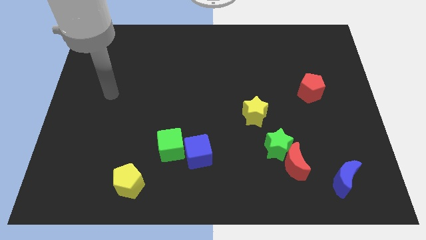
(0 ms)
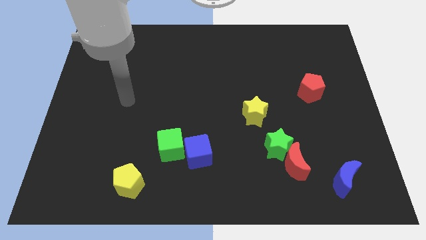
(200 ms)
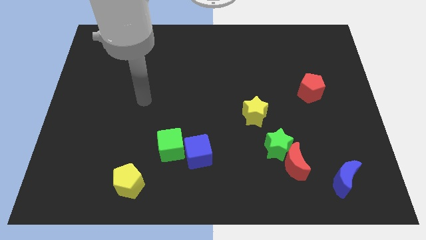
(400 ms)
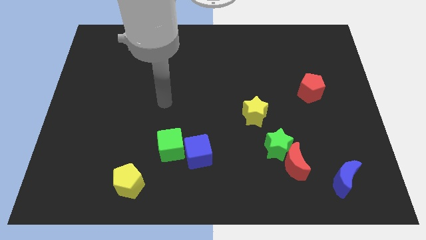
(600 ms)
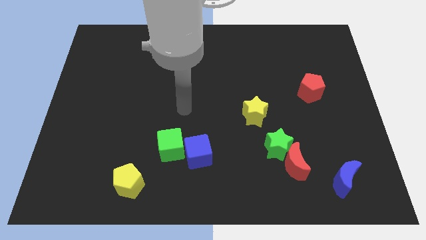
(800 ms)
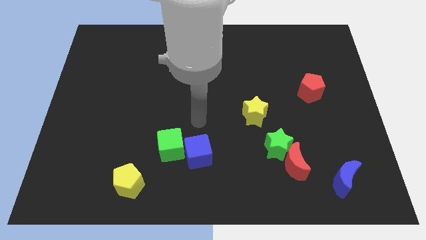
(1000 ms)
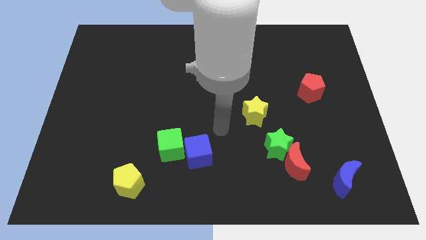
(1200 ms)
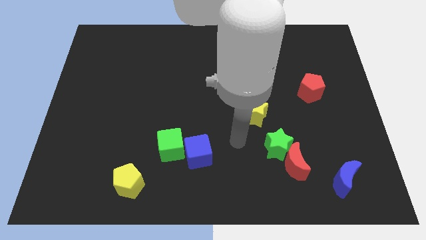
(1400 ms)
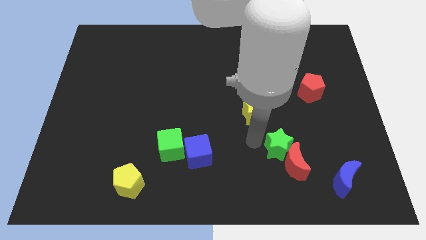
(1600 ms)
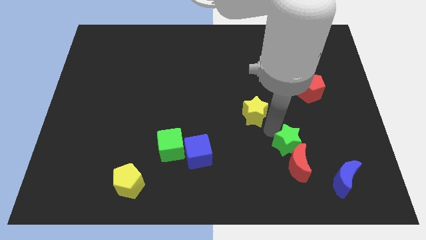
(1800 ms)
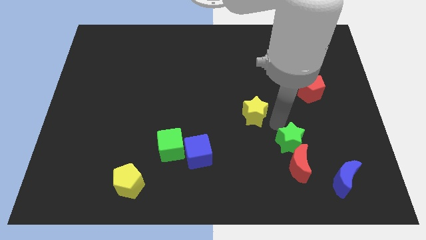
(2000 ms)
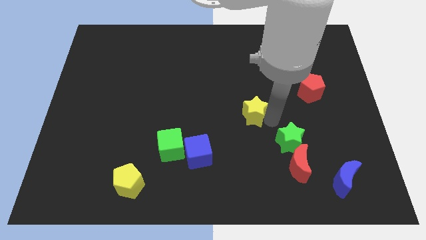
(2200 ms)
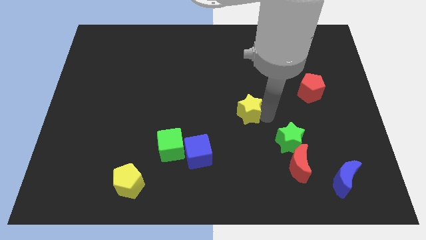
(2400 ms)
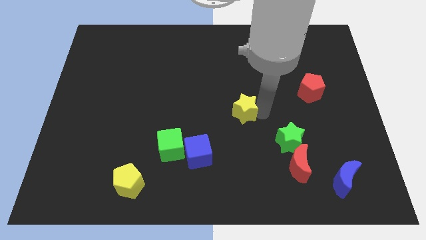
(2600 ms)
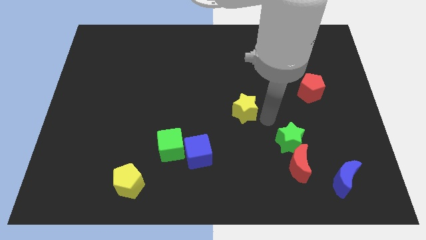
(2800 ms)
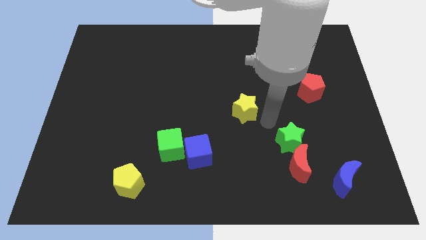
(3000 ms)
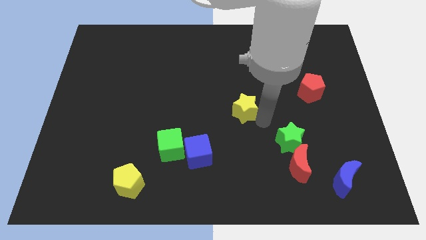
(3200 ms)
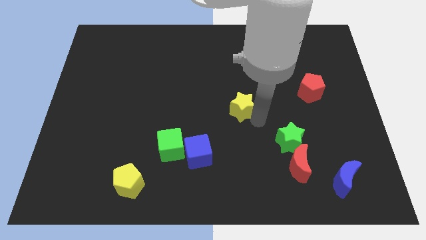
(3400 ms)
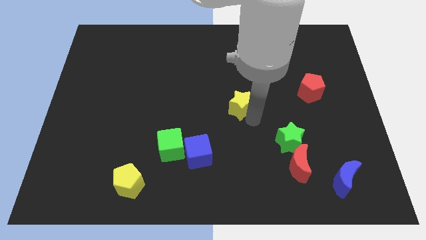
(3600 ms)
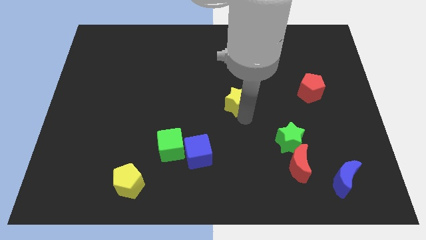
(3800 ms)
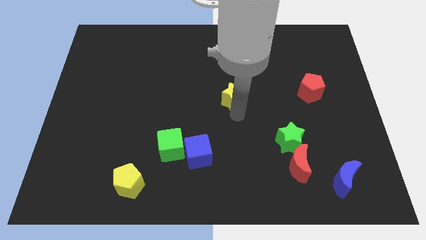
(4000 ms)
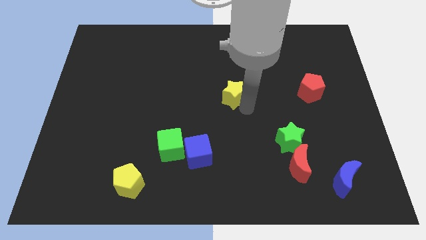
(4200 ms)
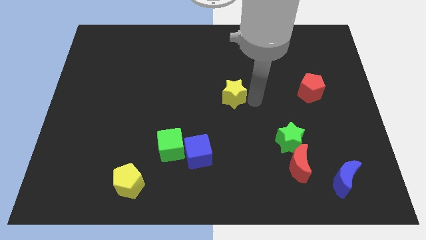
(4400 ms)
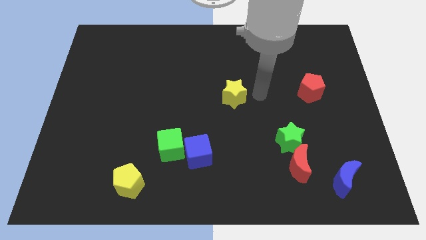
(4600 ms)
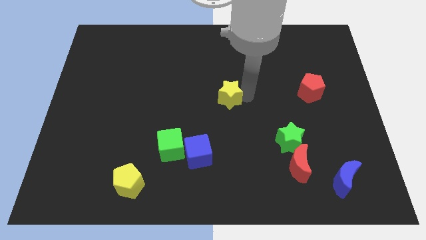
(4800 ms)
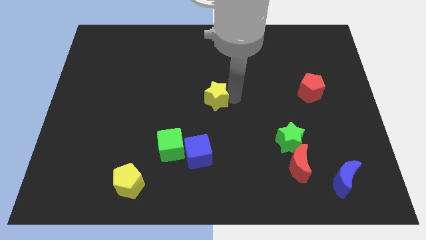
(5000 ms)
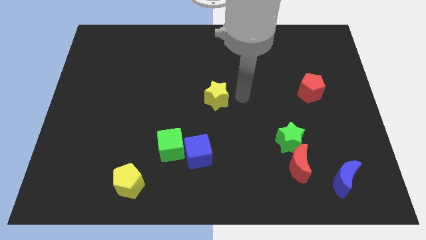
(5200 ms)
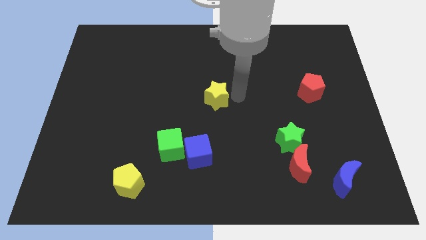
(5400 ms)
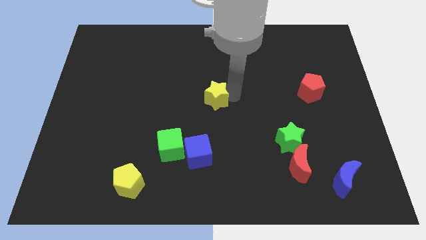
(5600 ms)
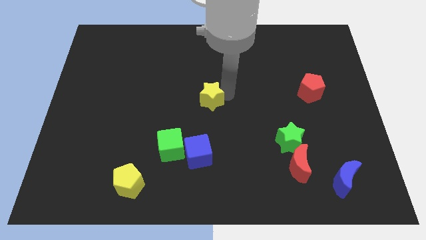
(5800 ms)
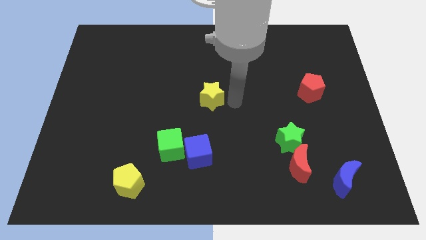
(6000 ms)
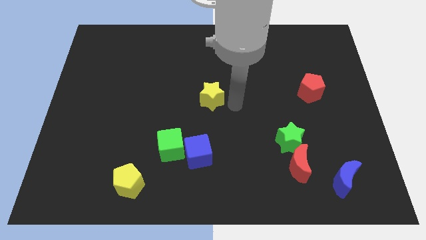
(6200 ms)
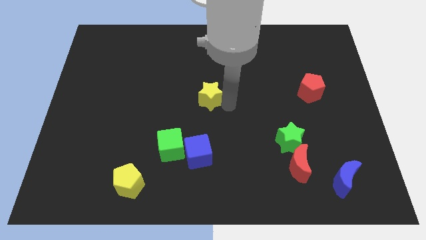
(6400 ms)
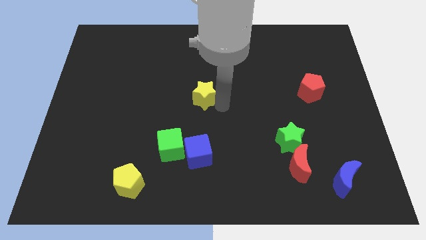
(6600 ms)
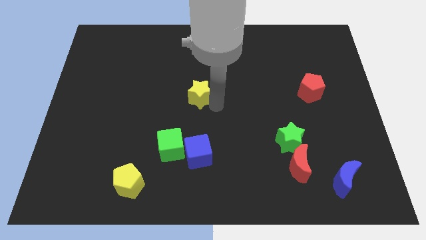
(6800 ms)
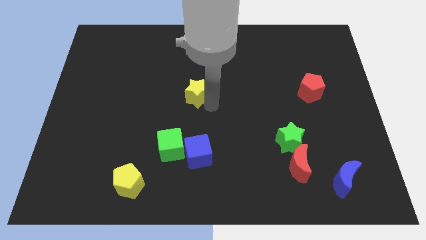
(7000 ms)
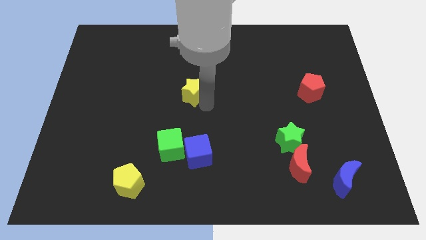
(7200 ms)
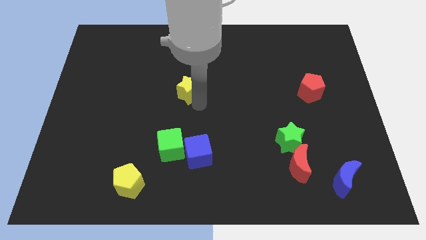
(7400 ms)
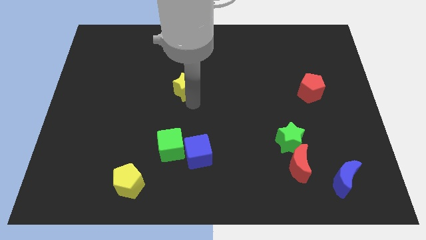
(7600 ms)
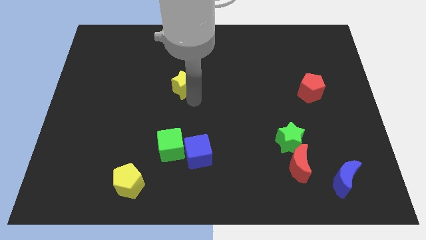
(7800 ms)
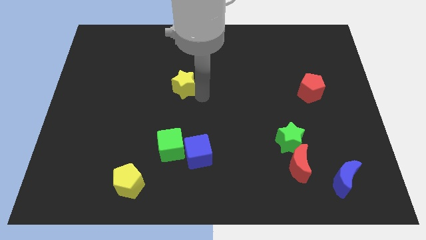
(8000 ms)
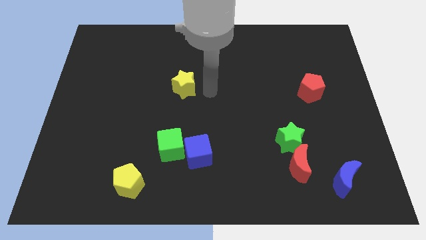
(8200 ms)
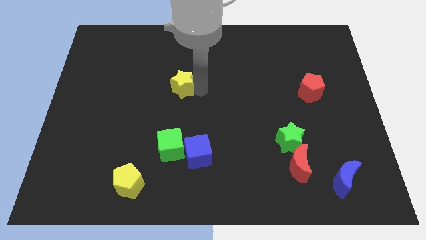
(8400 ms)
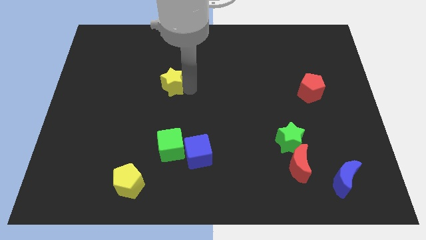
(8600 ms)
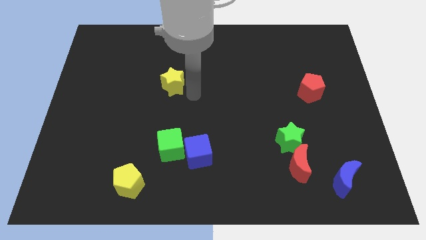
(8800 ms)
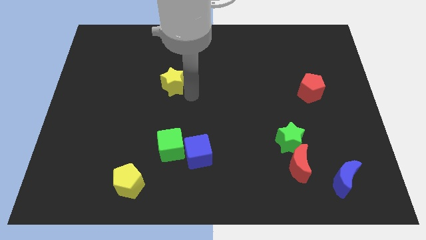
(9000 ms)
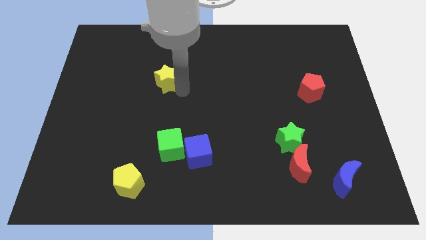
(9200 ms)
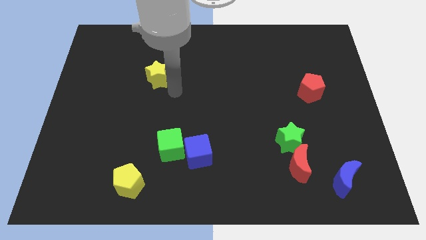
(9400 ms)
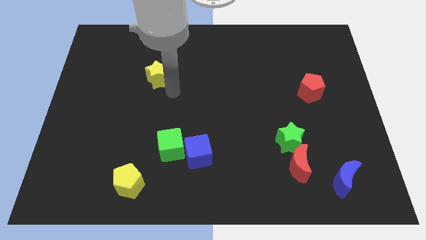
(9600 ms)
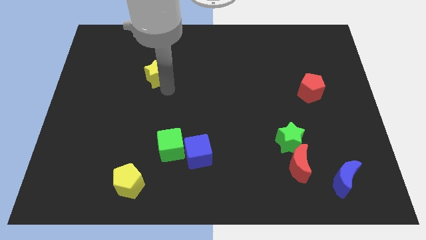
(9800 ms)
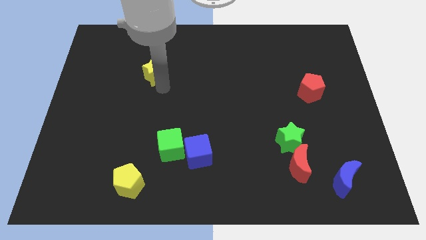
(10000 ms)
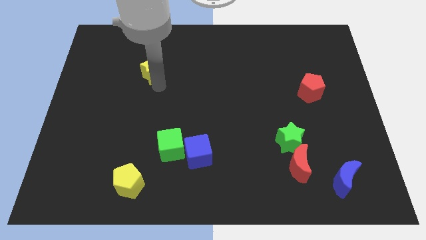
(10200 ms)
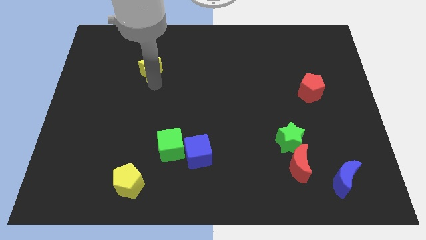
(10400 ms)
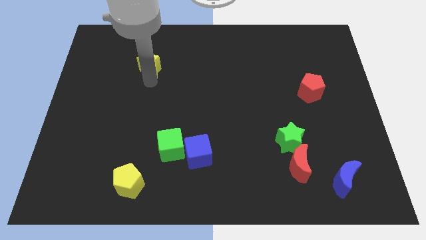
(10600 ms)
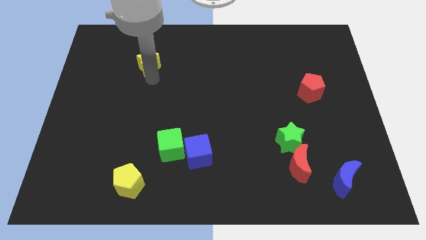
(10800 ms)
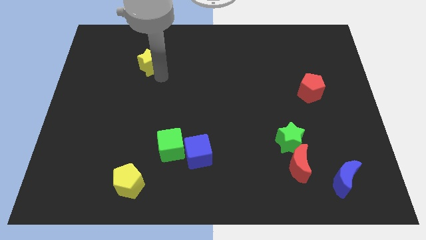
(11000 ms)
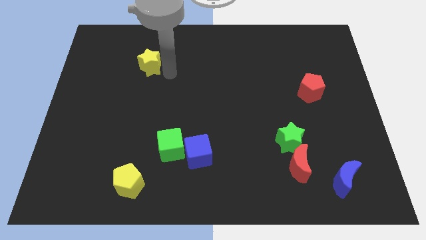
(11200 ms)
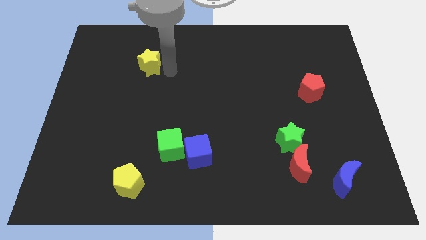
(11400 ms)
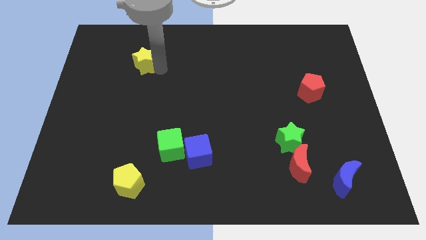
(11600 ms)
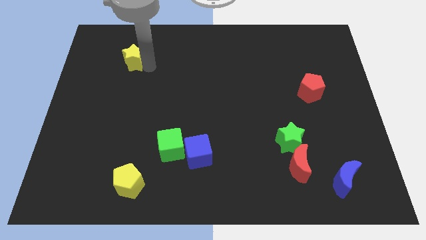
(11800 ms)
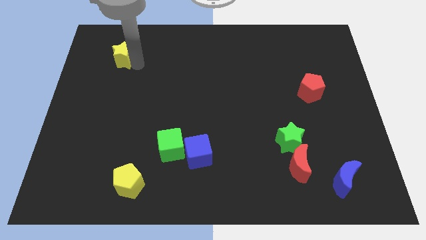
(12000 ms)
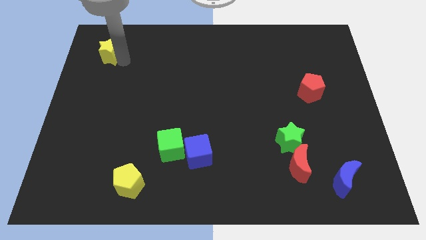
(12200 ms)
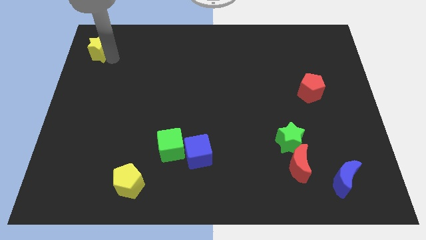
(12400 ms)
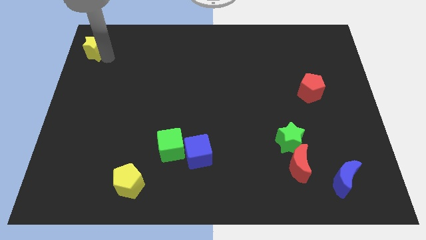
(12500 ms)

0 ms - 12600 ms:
put the yellow star to the top left of the board

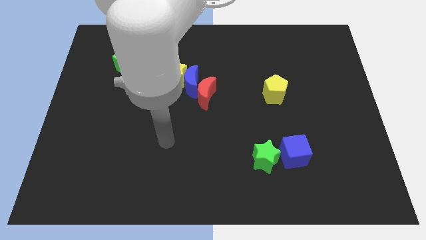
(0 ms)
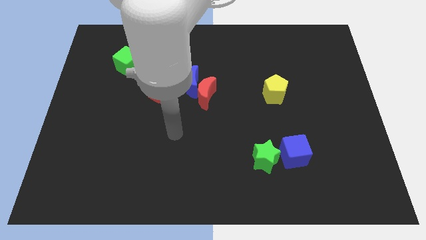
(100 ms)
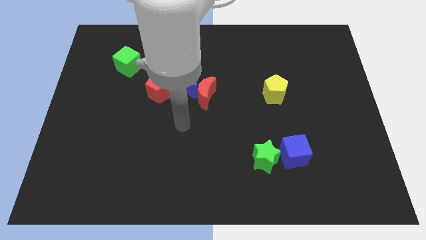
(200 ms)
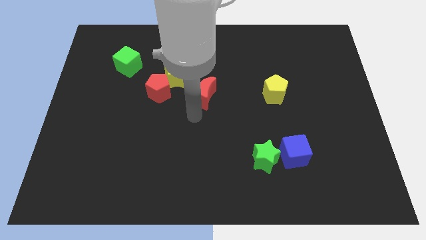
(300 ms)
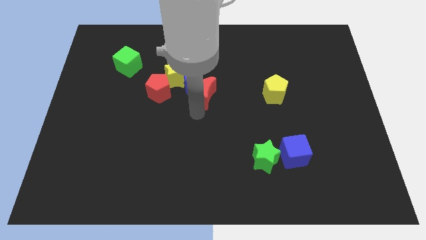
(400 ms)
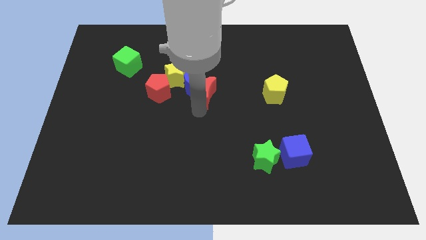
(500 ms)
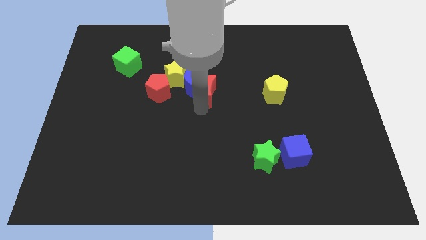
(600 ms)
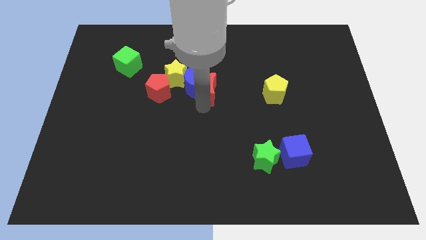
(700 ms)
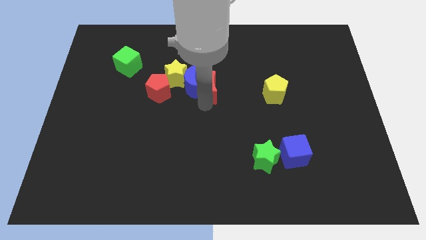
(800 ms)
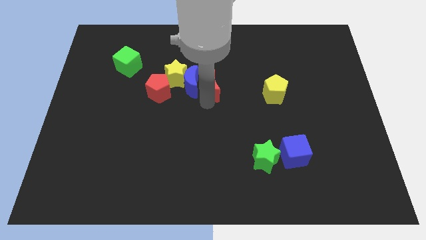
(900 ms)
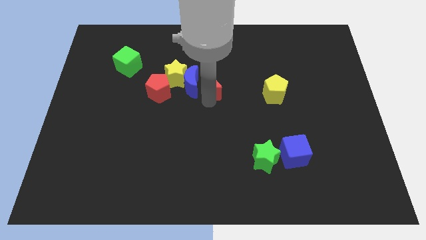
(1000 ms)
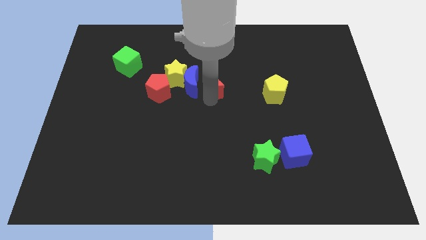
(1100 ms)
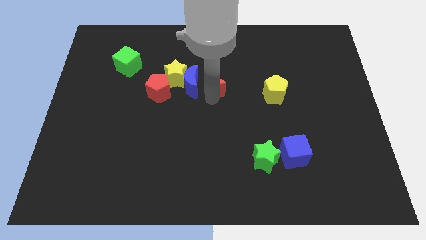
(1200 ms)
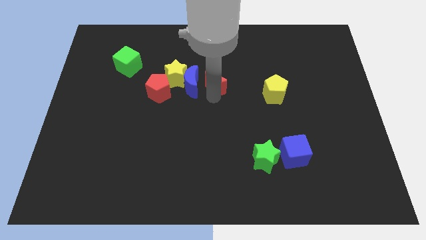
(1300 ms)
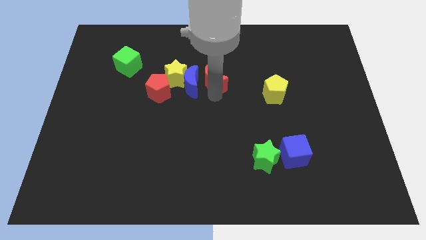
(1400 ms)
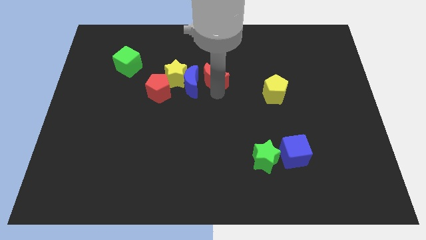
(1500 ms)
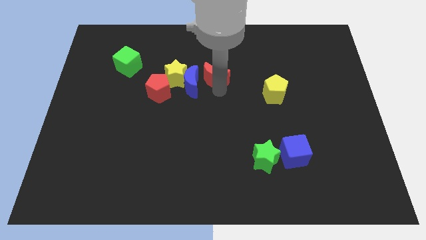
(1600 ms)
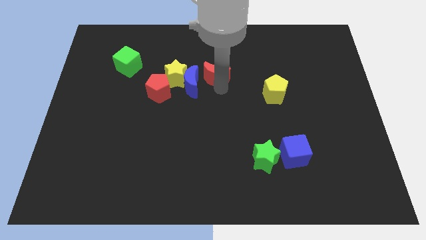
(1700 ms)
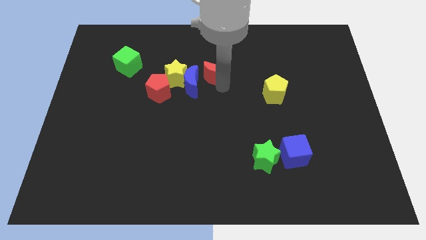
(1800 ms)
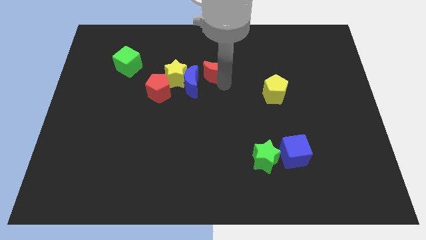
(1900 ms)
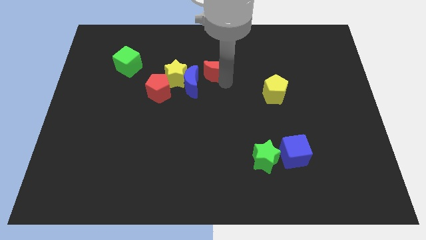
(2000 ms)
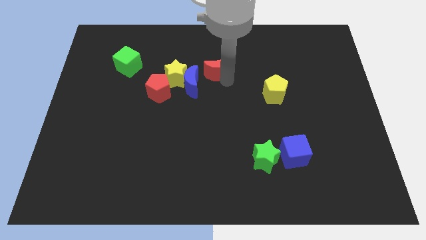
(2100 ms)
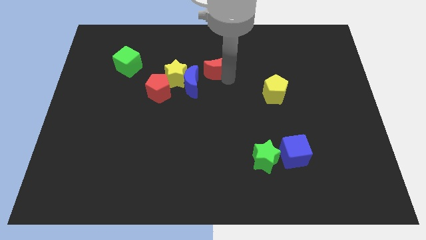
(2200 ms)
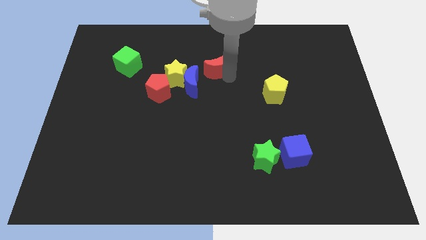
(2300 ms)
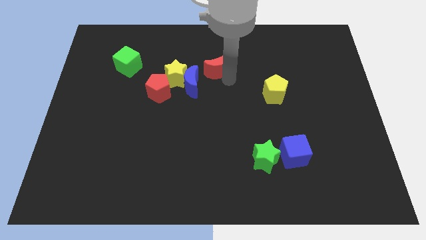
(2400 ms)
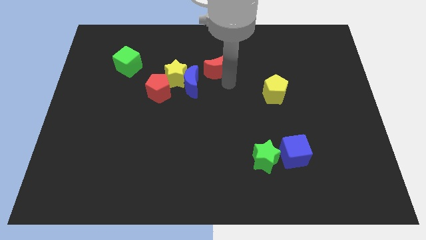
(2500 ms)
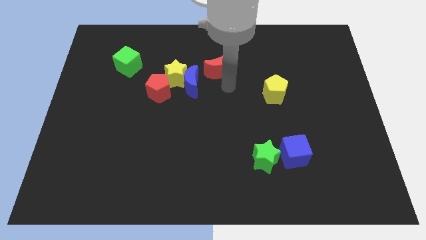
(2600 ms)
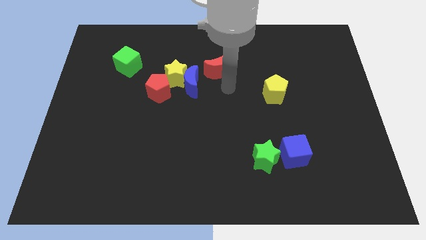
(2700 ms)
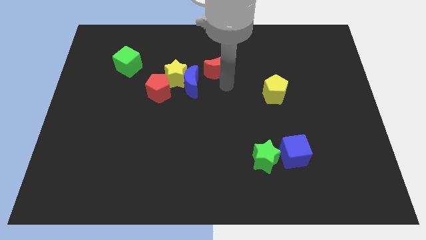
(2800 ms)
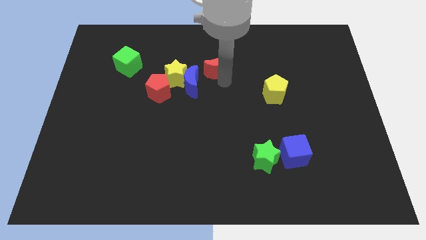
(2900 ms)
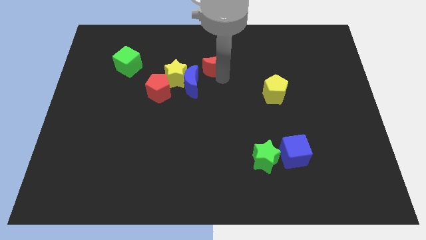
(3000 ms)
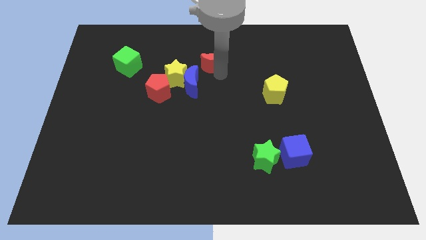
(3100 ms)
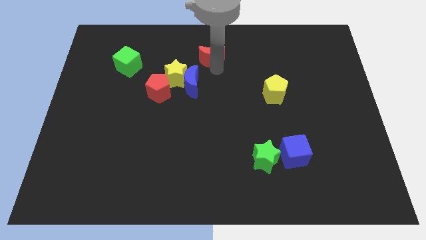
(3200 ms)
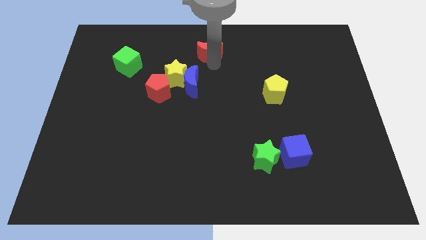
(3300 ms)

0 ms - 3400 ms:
slide the red moon to the towards your base
